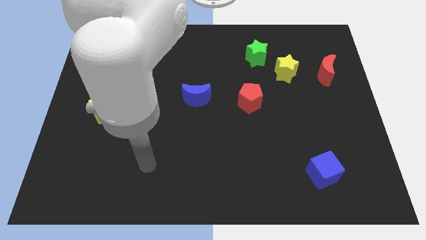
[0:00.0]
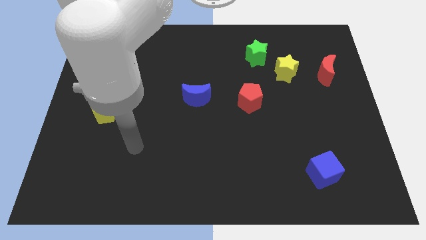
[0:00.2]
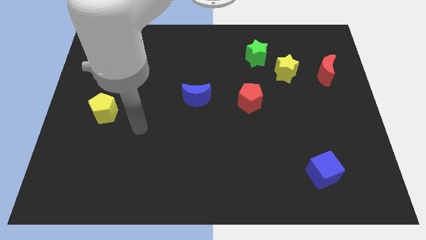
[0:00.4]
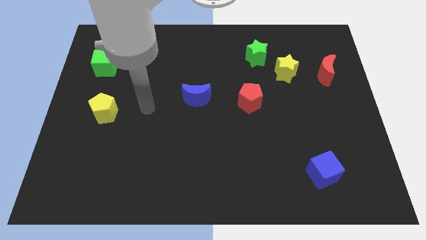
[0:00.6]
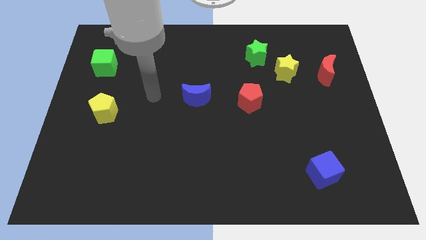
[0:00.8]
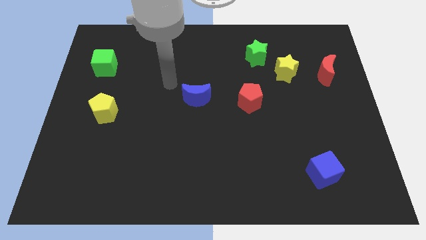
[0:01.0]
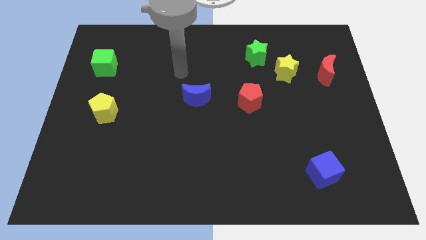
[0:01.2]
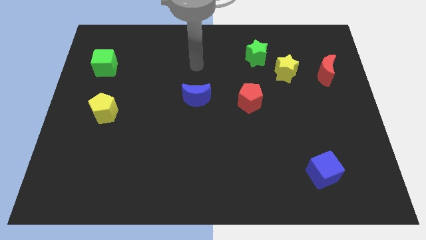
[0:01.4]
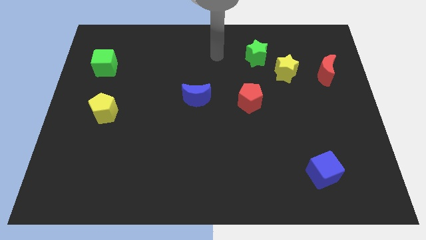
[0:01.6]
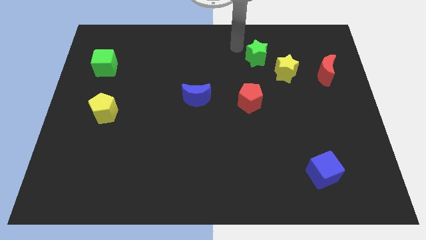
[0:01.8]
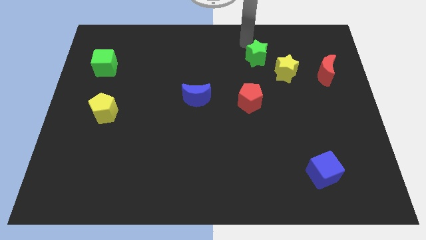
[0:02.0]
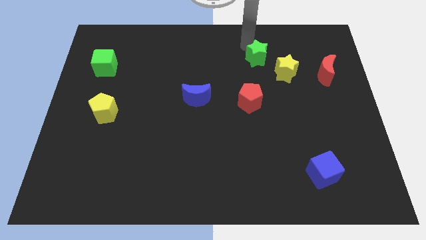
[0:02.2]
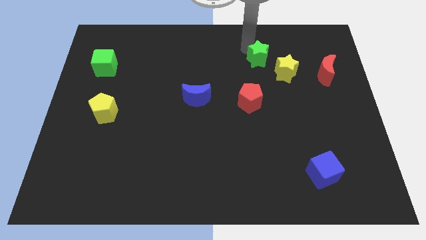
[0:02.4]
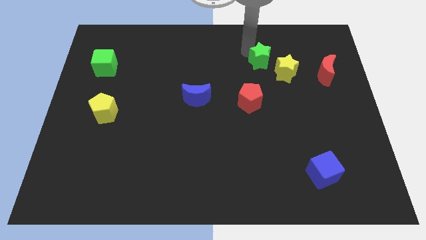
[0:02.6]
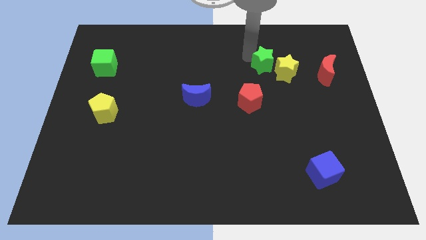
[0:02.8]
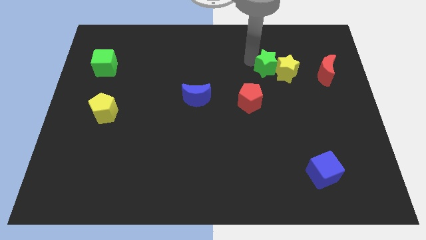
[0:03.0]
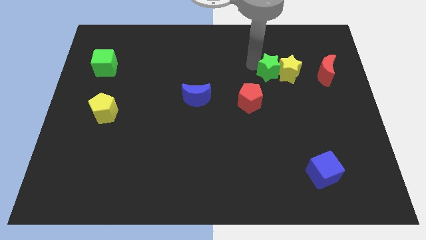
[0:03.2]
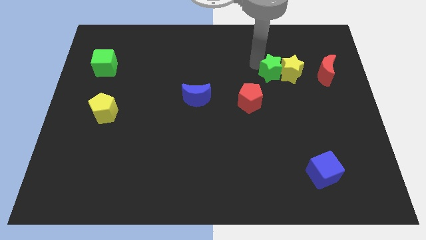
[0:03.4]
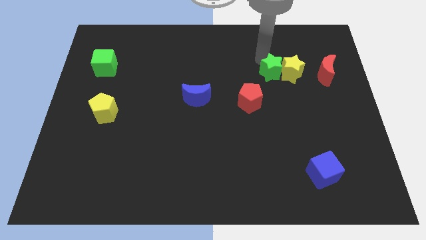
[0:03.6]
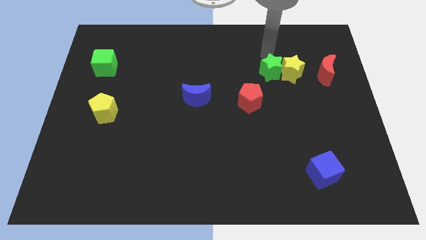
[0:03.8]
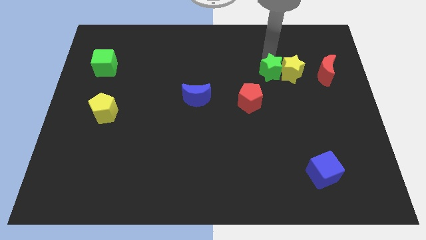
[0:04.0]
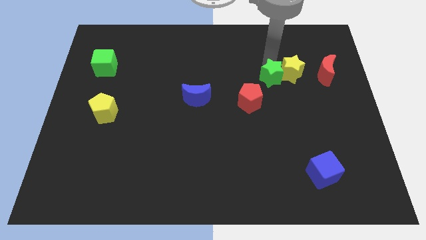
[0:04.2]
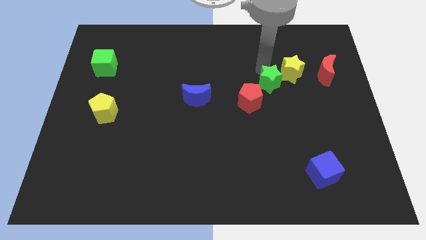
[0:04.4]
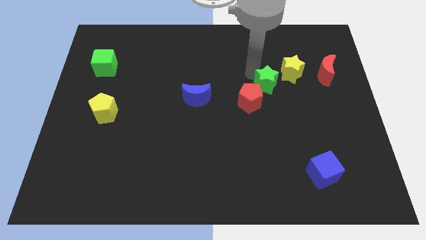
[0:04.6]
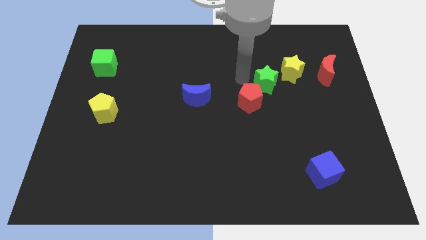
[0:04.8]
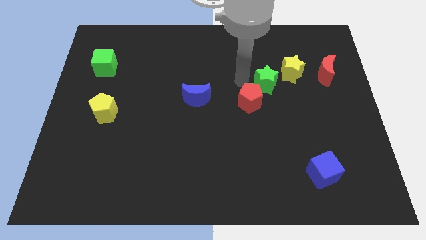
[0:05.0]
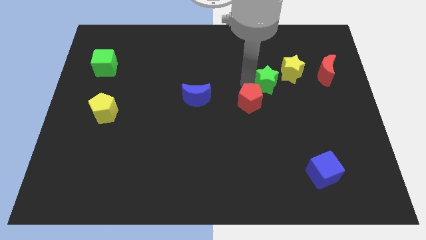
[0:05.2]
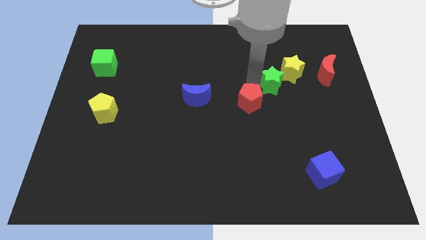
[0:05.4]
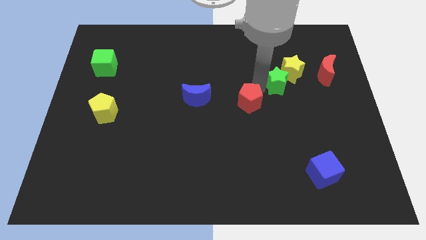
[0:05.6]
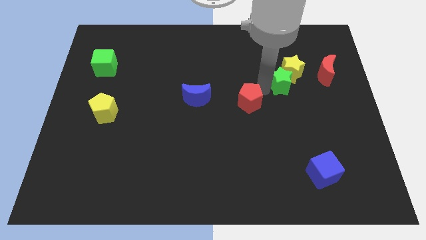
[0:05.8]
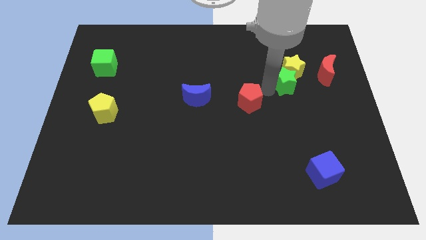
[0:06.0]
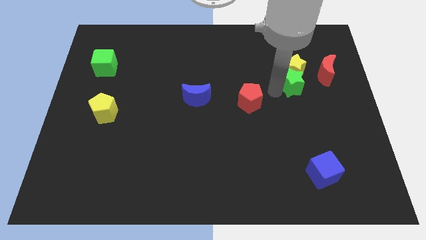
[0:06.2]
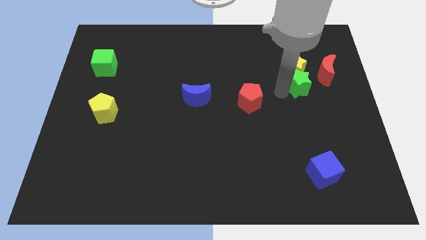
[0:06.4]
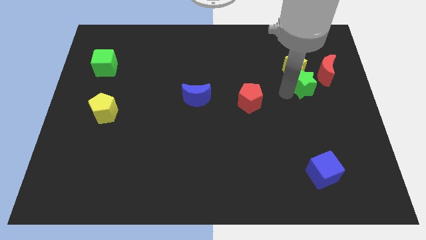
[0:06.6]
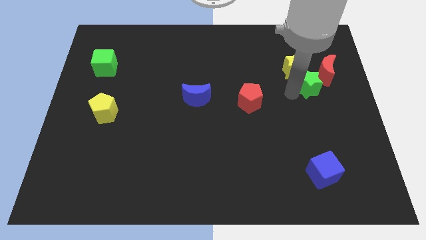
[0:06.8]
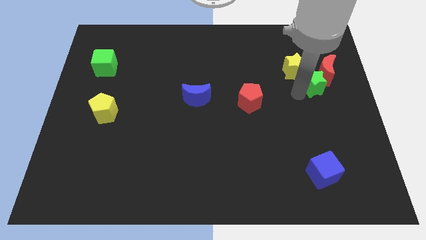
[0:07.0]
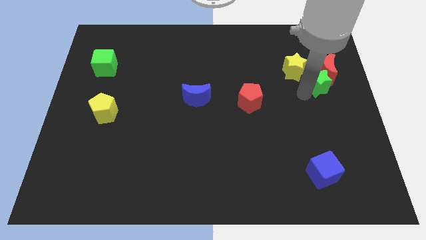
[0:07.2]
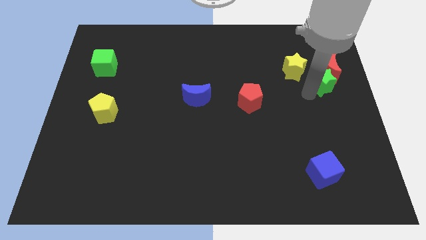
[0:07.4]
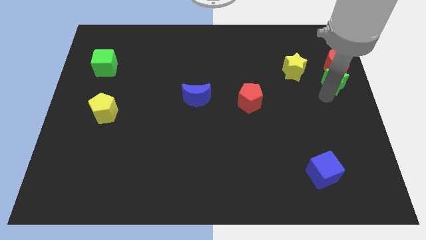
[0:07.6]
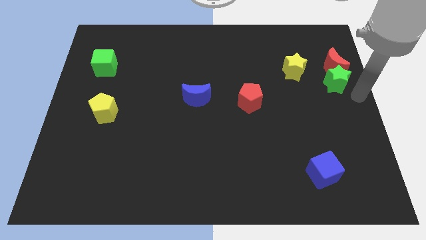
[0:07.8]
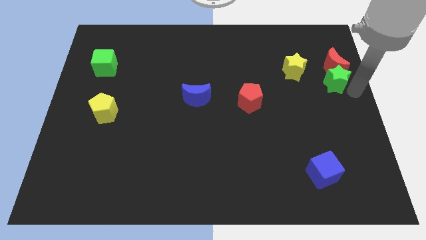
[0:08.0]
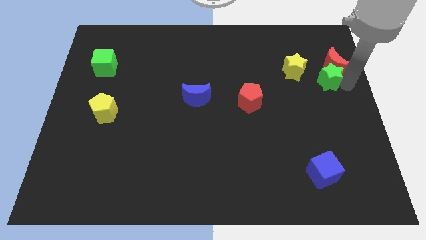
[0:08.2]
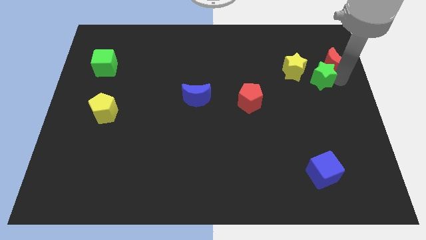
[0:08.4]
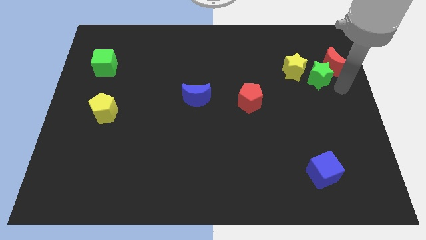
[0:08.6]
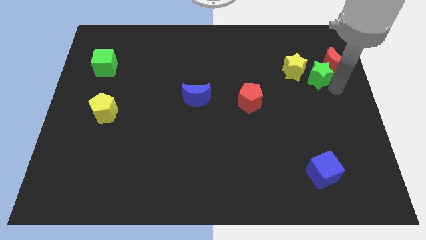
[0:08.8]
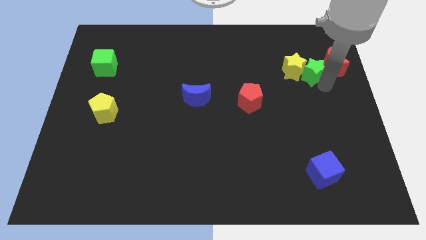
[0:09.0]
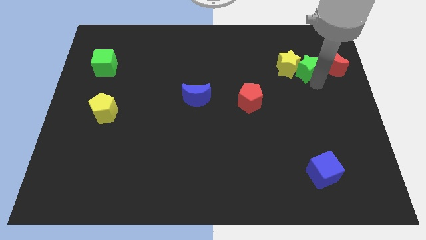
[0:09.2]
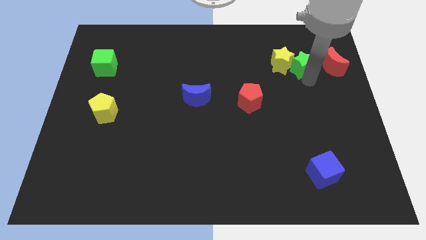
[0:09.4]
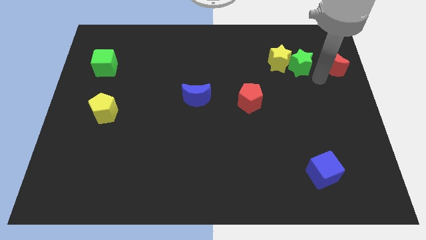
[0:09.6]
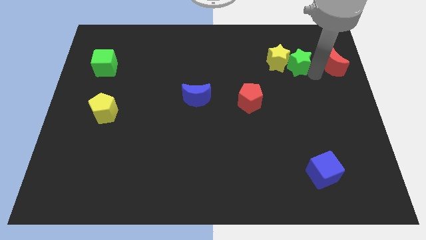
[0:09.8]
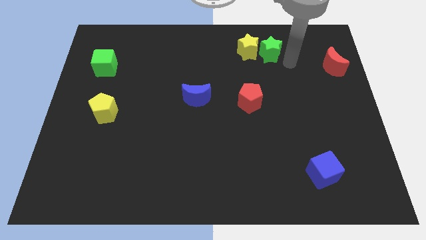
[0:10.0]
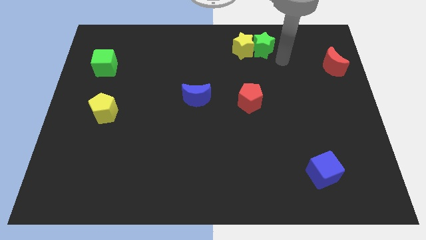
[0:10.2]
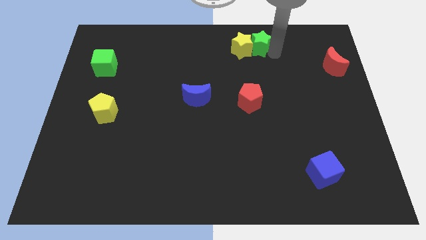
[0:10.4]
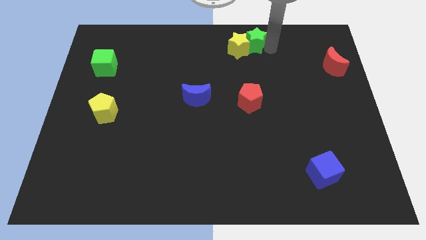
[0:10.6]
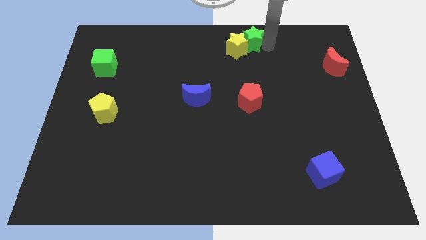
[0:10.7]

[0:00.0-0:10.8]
slide the green star to the towards your base
